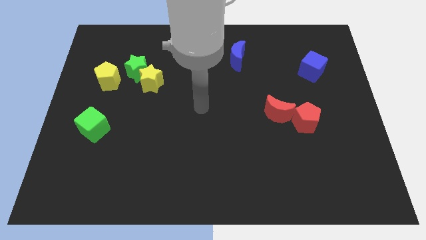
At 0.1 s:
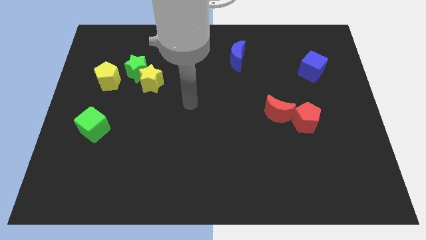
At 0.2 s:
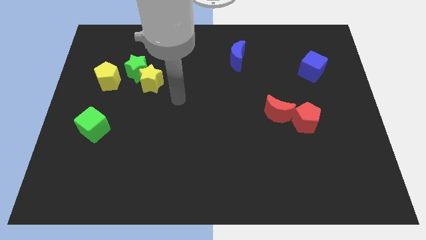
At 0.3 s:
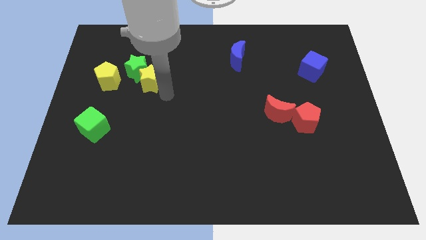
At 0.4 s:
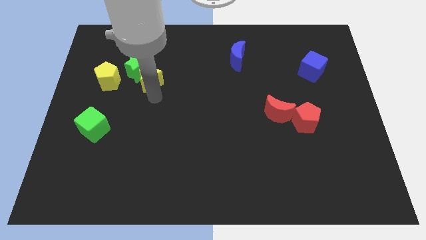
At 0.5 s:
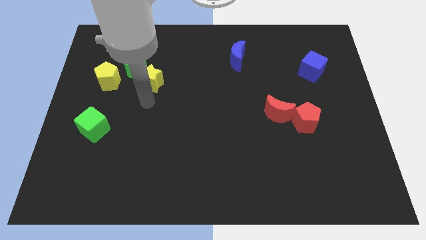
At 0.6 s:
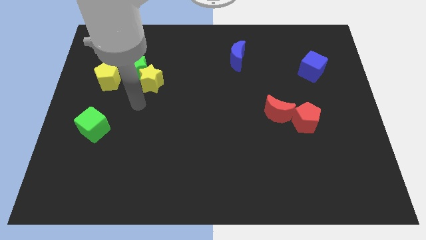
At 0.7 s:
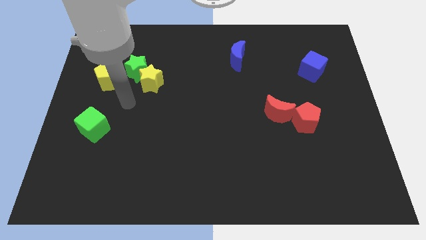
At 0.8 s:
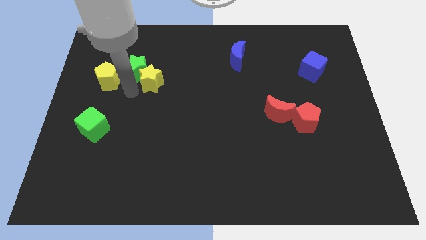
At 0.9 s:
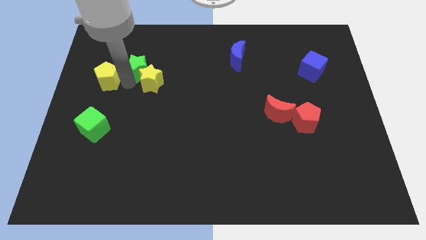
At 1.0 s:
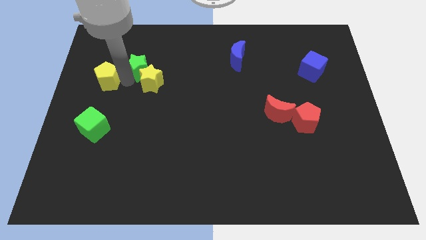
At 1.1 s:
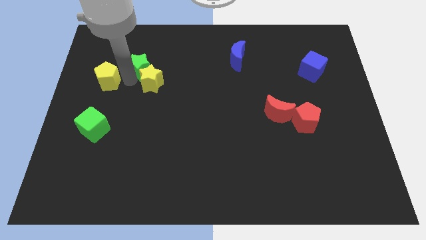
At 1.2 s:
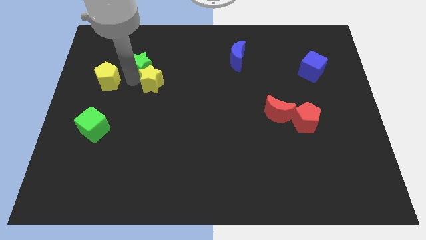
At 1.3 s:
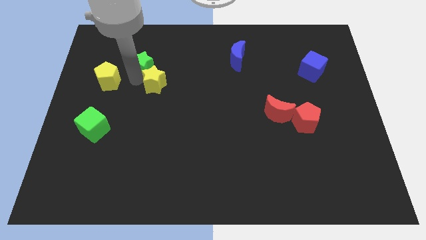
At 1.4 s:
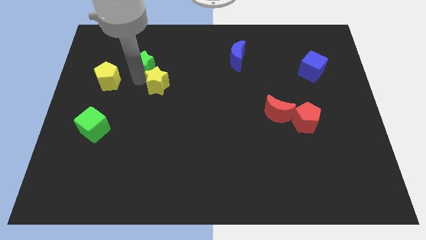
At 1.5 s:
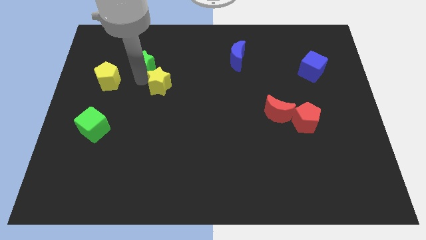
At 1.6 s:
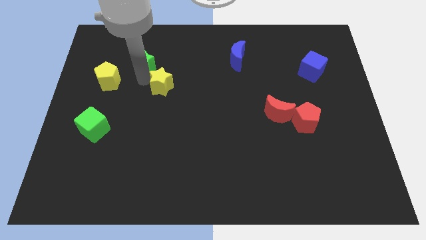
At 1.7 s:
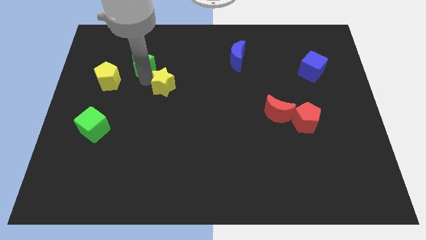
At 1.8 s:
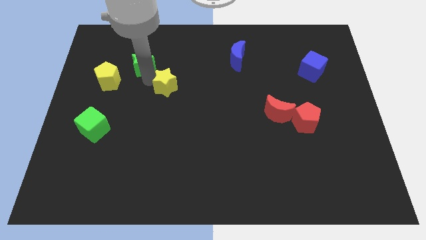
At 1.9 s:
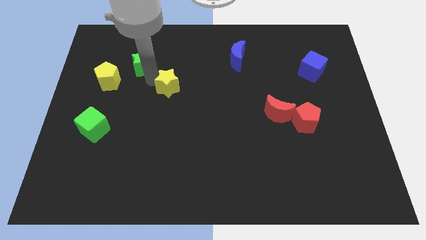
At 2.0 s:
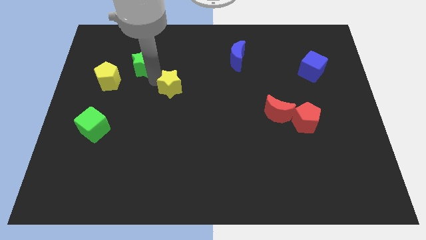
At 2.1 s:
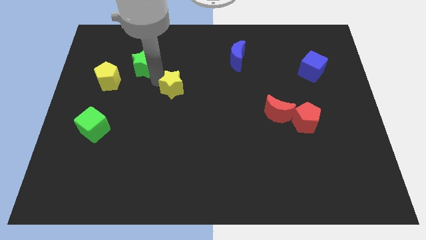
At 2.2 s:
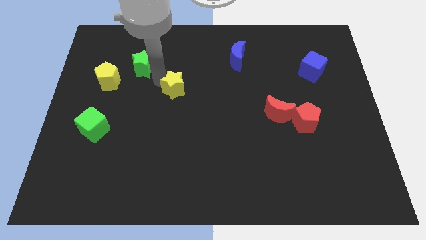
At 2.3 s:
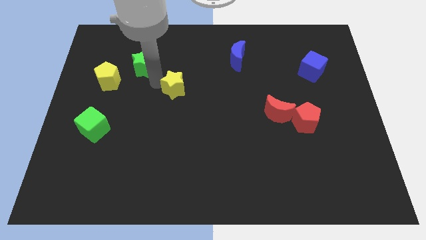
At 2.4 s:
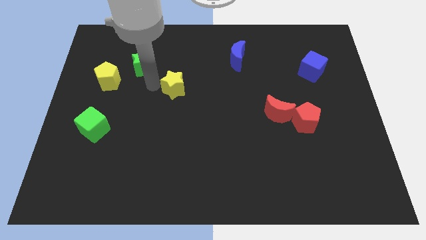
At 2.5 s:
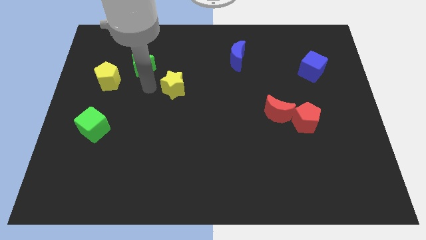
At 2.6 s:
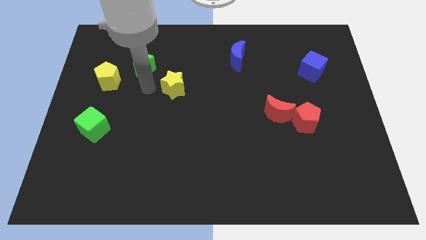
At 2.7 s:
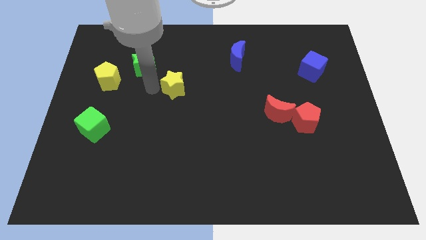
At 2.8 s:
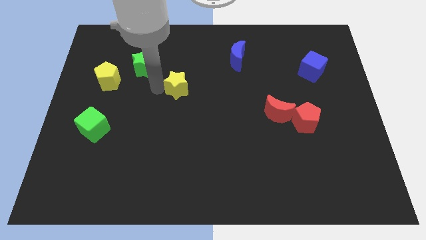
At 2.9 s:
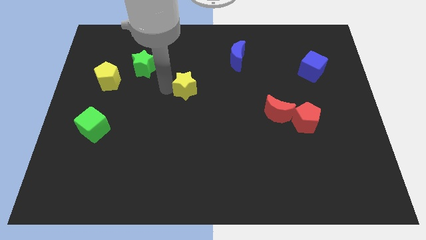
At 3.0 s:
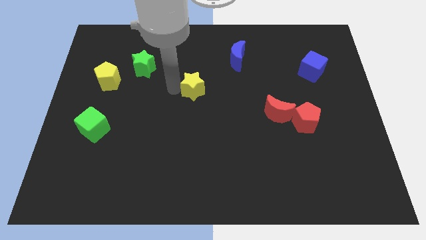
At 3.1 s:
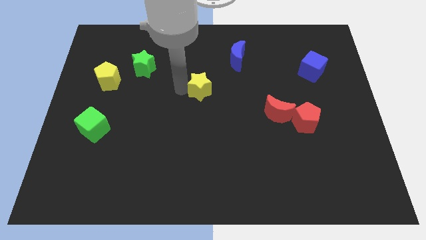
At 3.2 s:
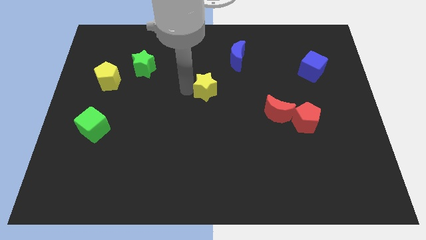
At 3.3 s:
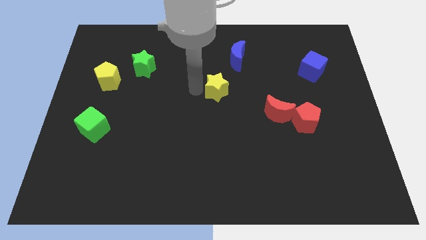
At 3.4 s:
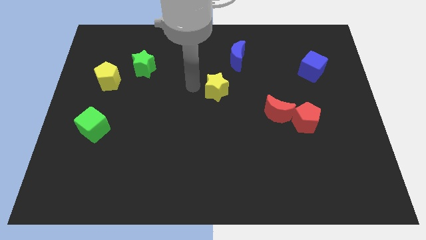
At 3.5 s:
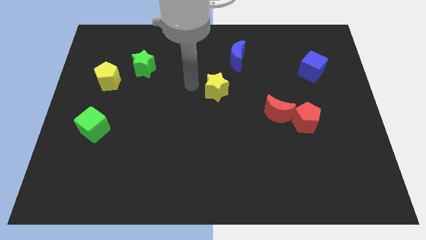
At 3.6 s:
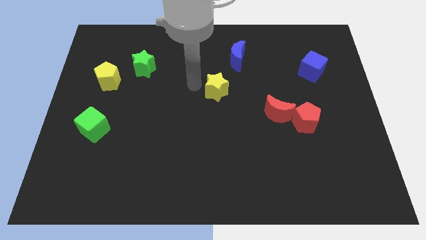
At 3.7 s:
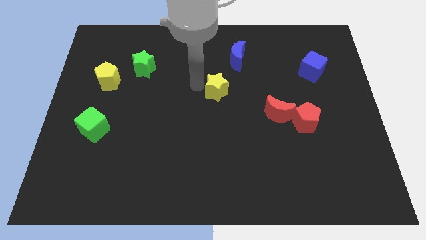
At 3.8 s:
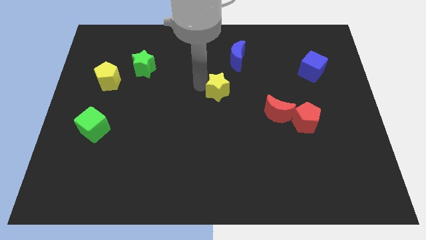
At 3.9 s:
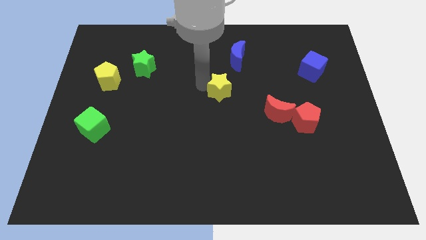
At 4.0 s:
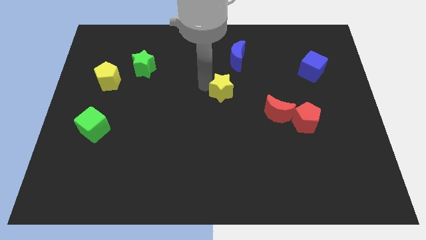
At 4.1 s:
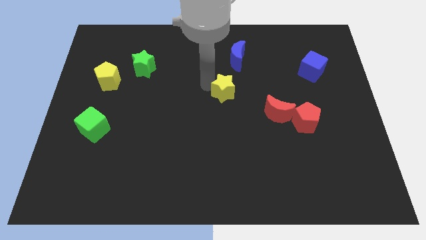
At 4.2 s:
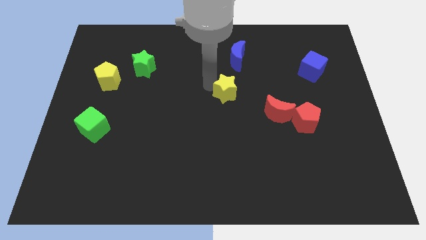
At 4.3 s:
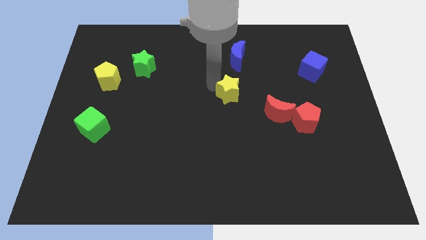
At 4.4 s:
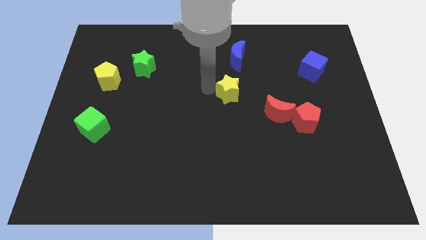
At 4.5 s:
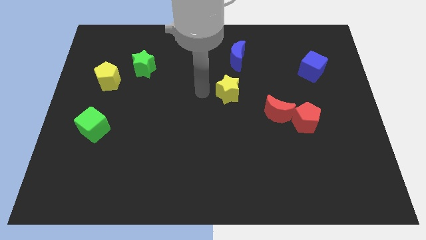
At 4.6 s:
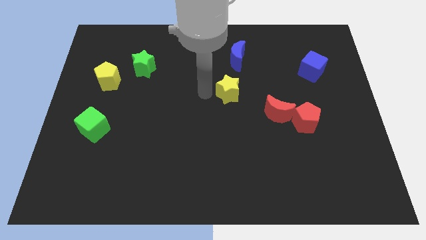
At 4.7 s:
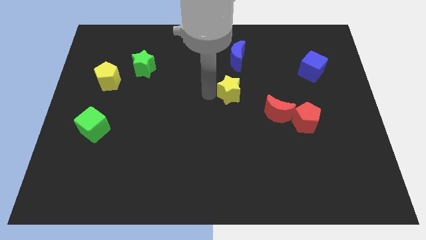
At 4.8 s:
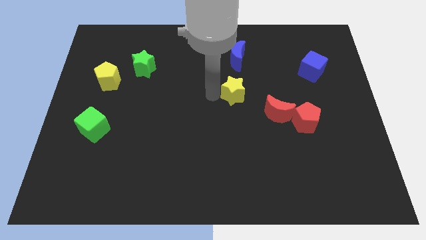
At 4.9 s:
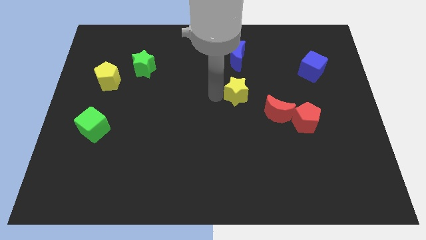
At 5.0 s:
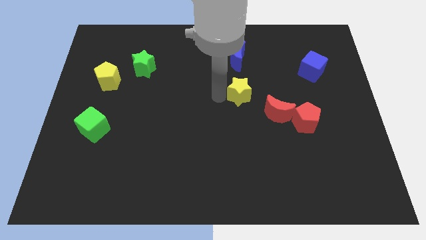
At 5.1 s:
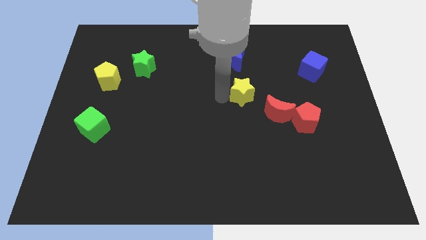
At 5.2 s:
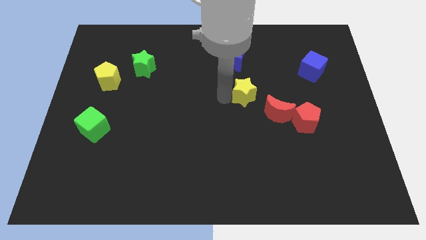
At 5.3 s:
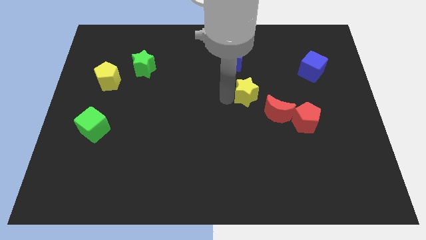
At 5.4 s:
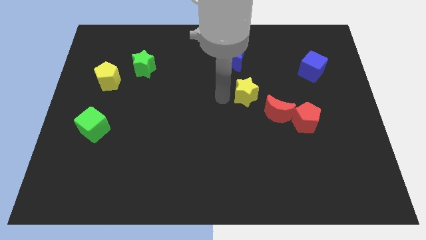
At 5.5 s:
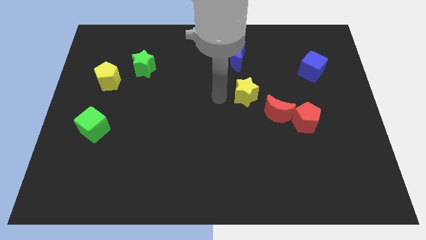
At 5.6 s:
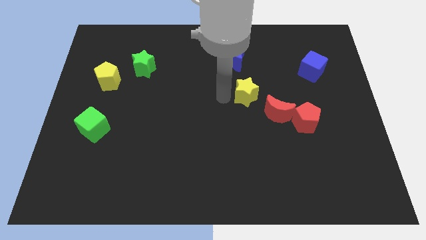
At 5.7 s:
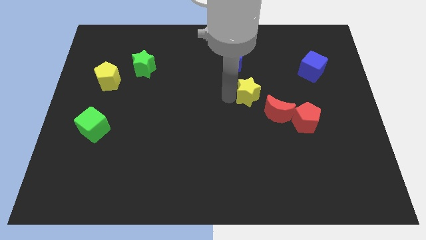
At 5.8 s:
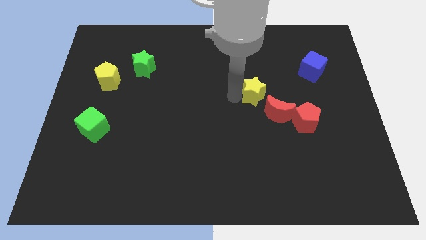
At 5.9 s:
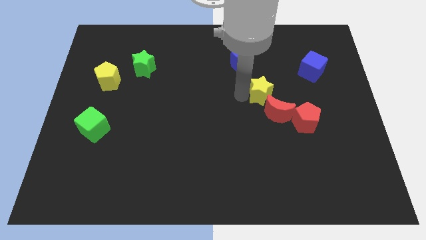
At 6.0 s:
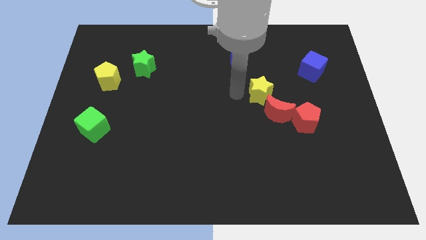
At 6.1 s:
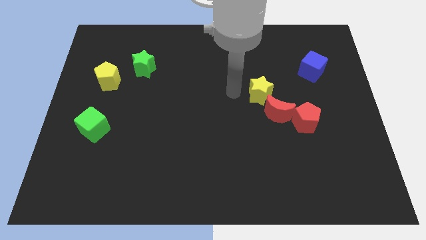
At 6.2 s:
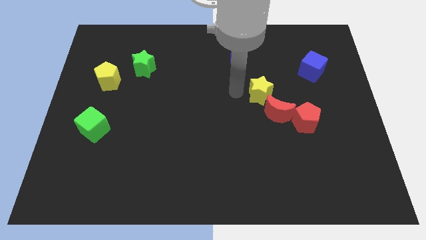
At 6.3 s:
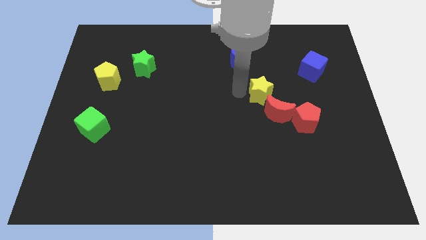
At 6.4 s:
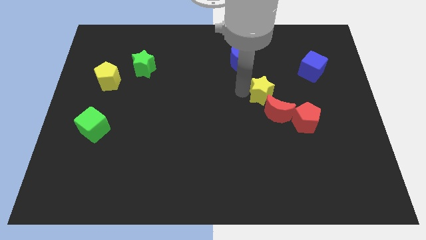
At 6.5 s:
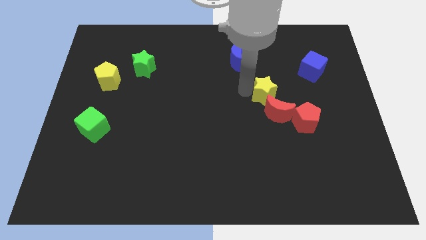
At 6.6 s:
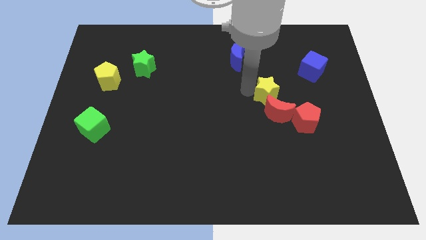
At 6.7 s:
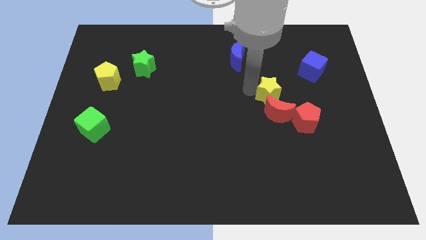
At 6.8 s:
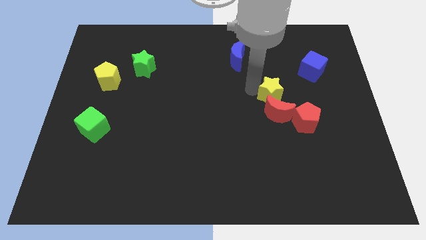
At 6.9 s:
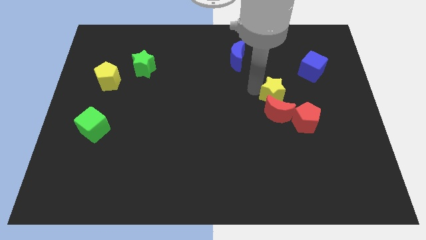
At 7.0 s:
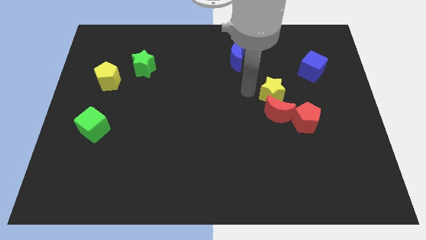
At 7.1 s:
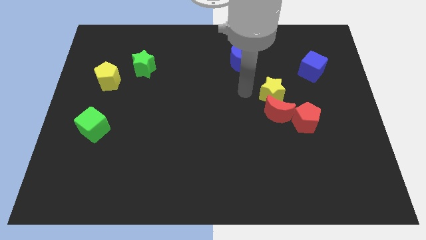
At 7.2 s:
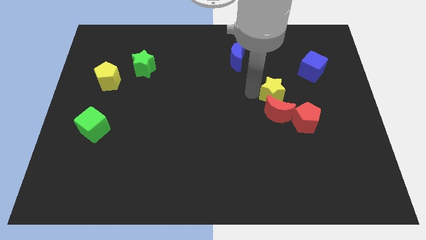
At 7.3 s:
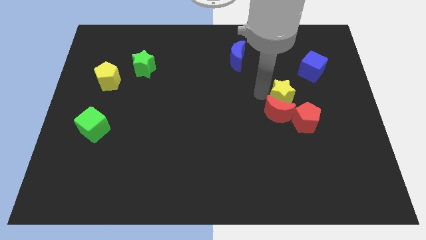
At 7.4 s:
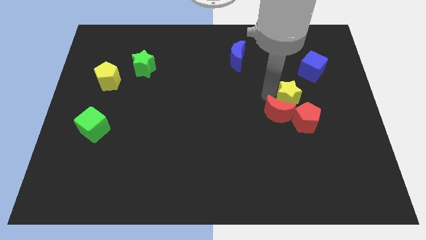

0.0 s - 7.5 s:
push the yellow star to the right of the red moon
